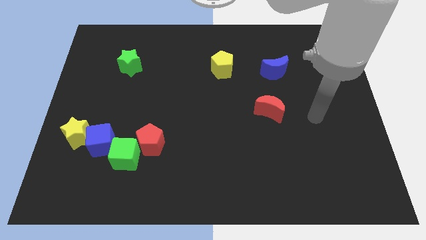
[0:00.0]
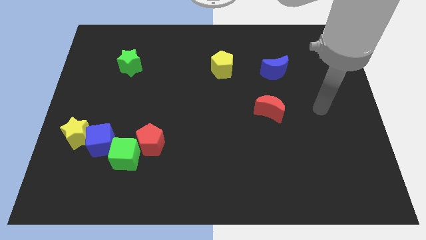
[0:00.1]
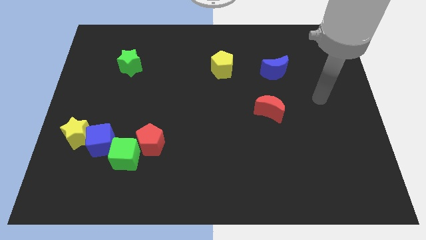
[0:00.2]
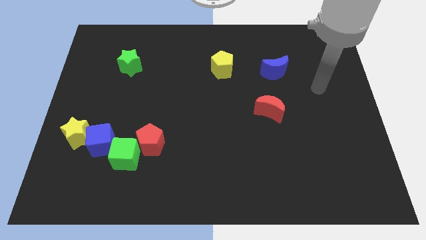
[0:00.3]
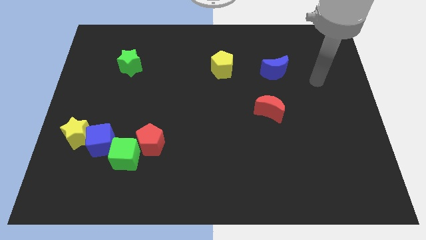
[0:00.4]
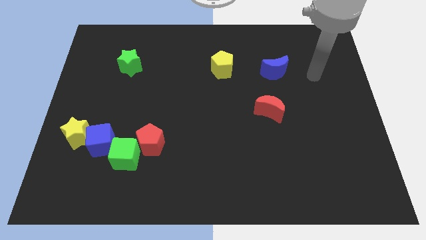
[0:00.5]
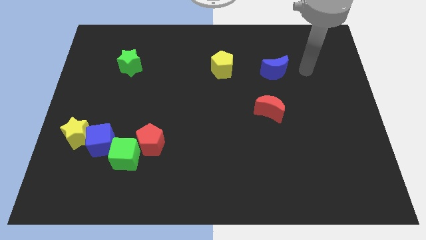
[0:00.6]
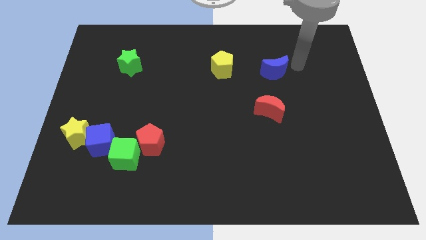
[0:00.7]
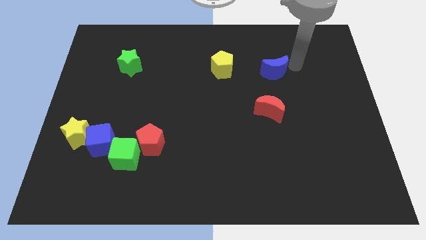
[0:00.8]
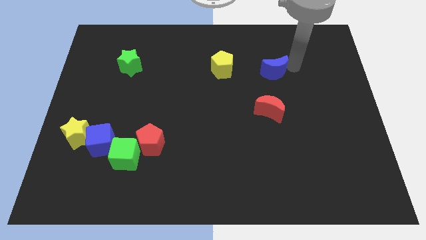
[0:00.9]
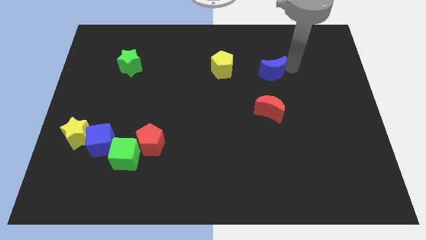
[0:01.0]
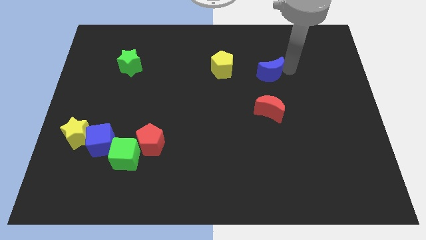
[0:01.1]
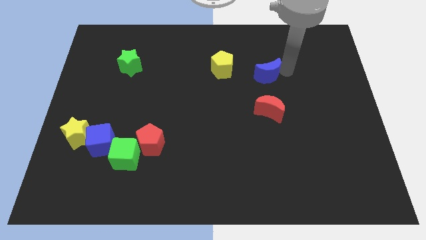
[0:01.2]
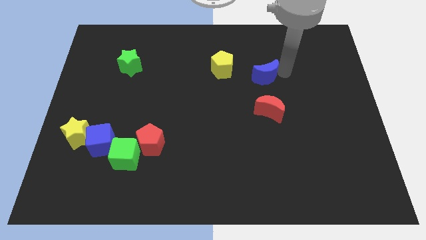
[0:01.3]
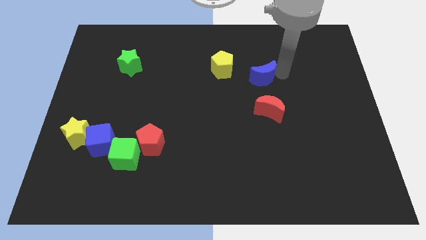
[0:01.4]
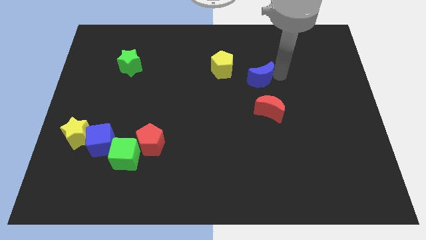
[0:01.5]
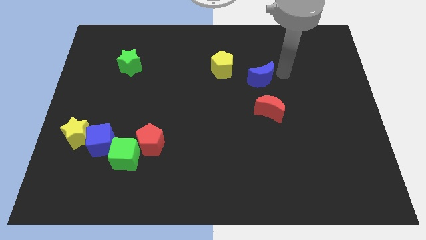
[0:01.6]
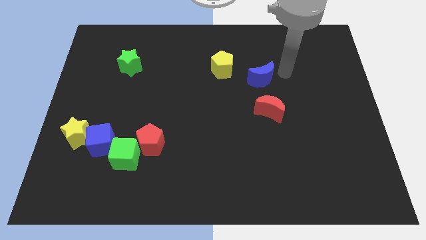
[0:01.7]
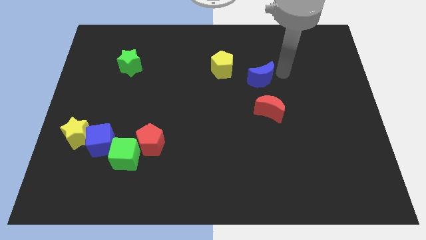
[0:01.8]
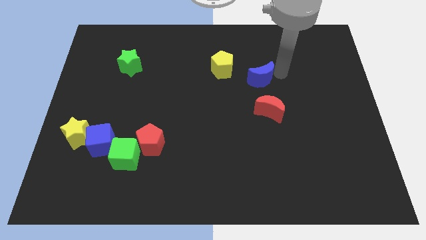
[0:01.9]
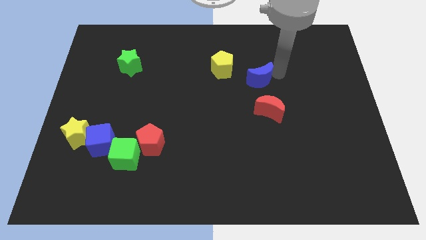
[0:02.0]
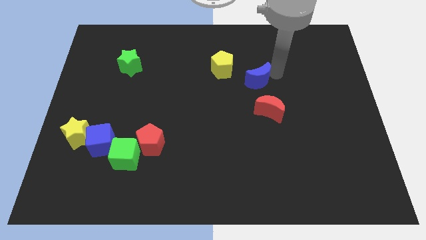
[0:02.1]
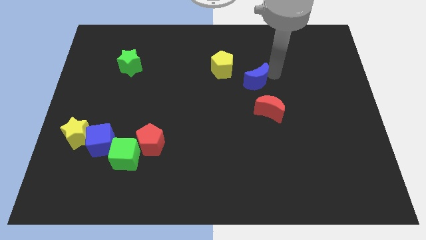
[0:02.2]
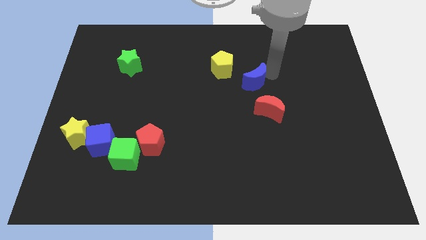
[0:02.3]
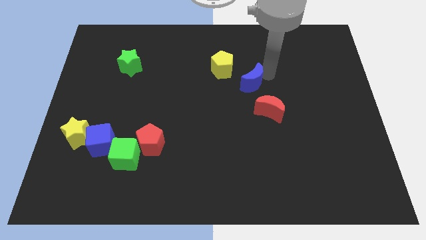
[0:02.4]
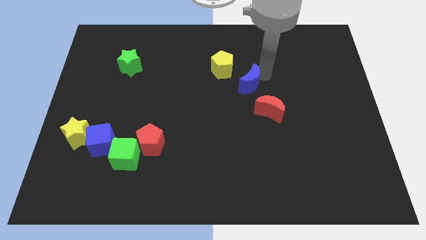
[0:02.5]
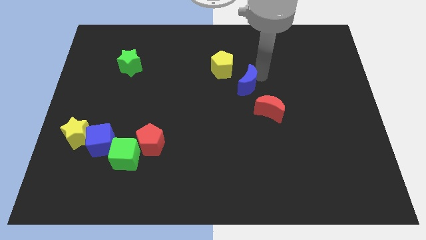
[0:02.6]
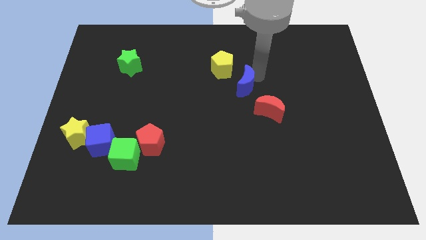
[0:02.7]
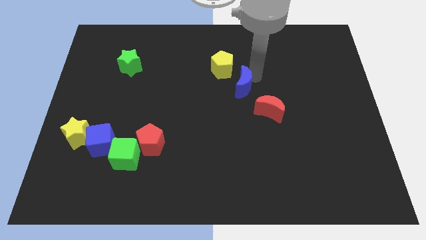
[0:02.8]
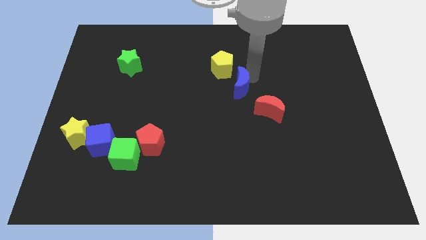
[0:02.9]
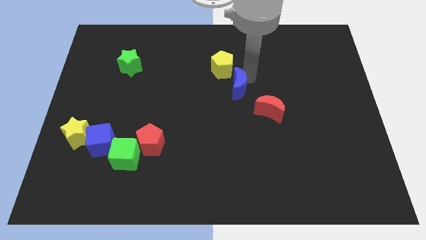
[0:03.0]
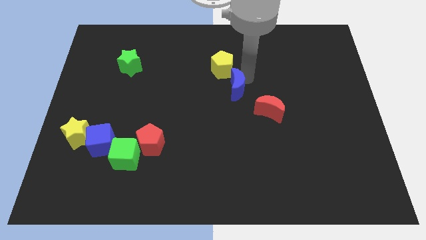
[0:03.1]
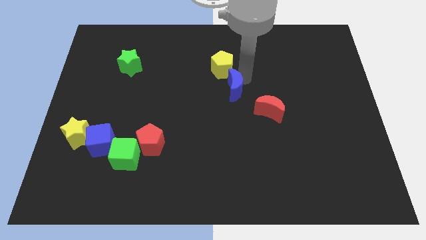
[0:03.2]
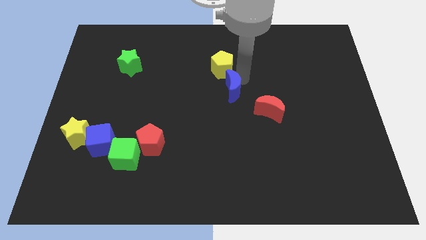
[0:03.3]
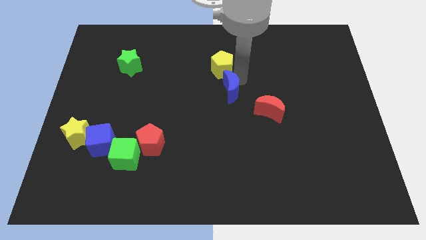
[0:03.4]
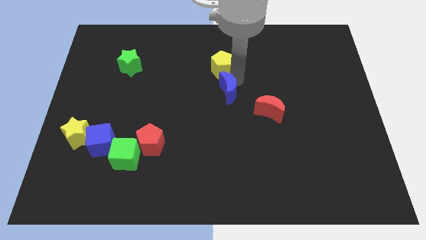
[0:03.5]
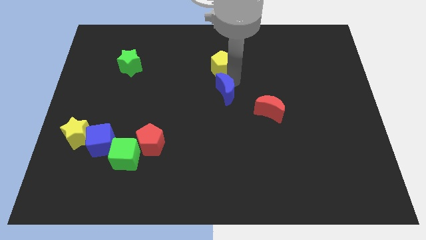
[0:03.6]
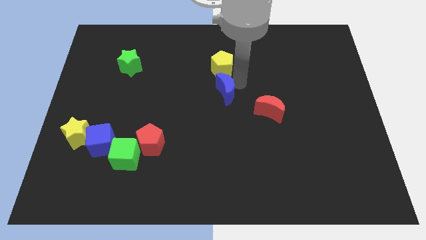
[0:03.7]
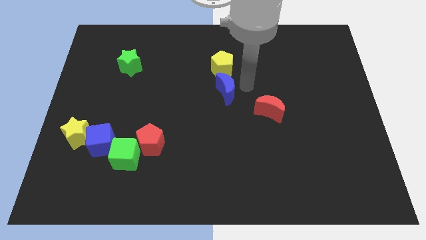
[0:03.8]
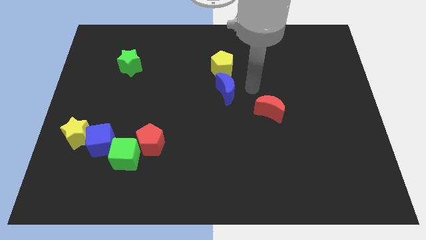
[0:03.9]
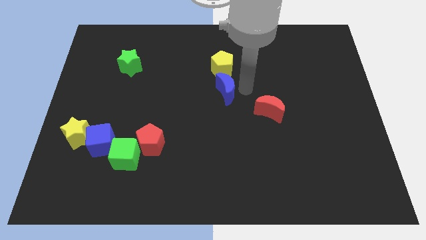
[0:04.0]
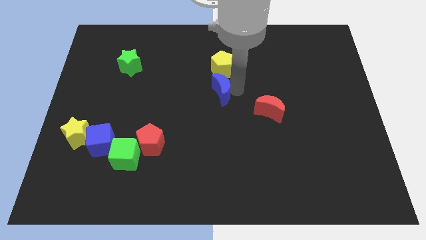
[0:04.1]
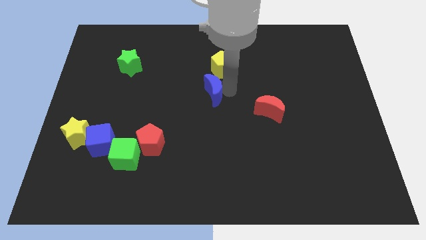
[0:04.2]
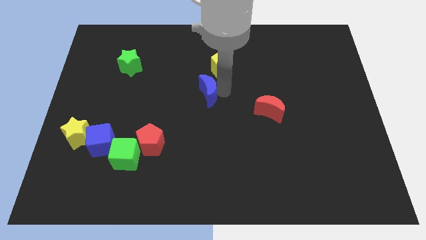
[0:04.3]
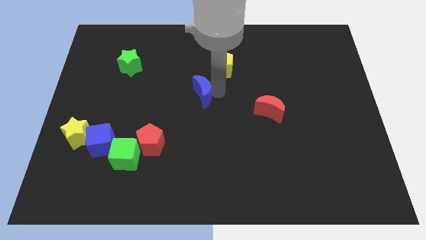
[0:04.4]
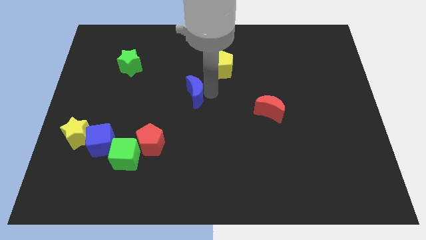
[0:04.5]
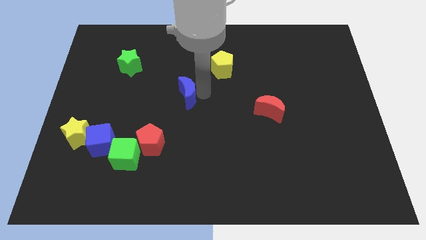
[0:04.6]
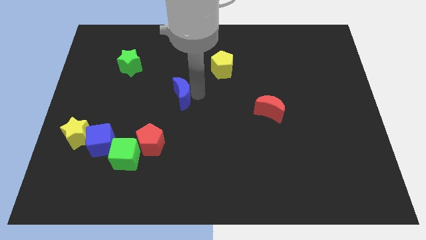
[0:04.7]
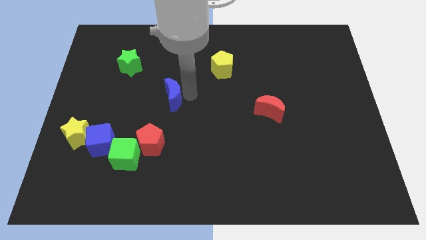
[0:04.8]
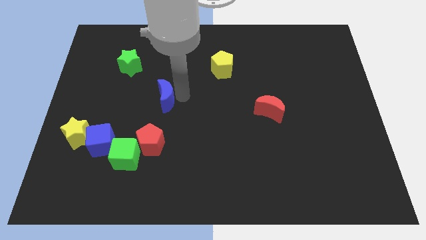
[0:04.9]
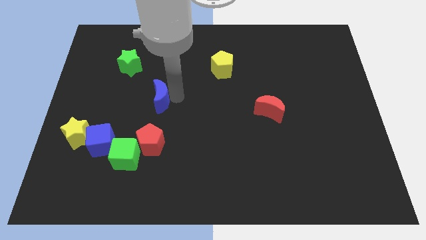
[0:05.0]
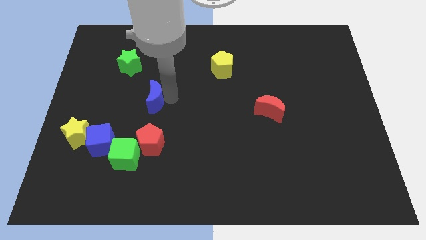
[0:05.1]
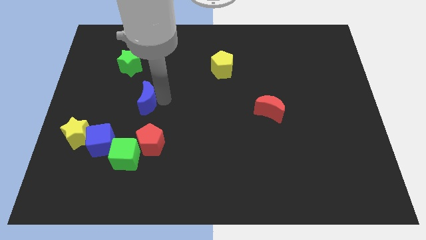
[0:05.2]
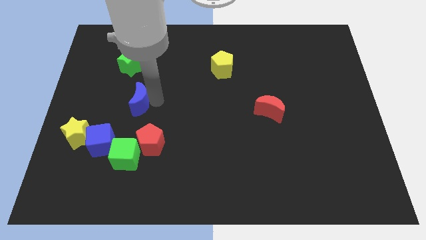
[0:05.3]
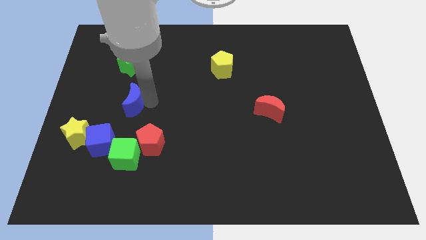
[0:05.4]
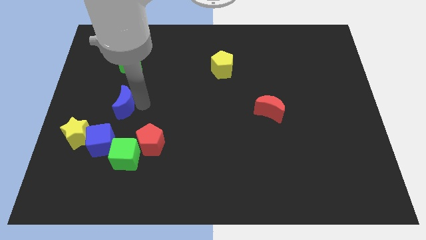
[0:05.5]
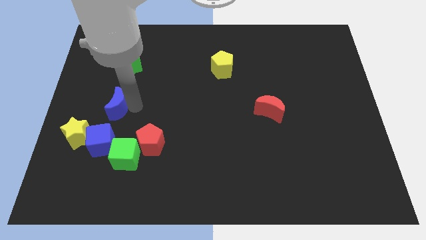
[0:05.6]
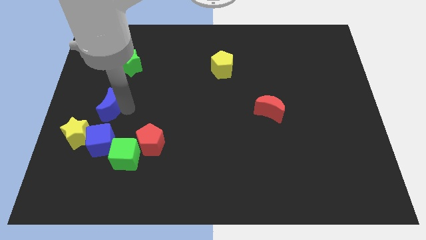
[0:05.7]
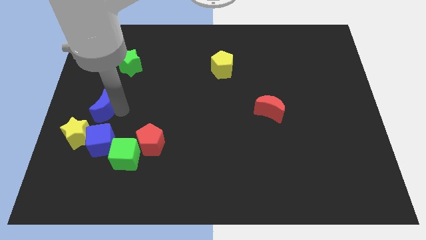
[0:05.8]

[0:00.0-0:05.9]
slide the blue moon to the left side of the board

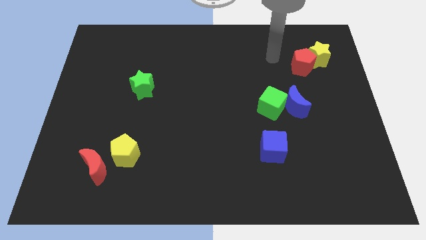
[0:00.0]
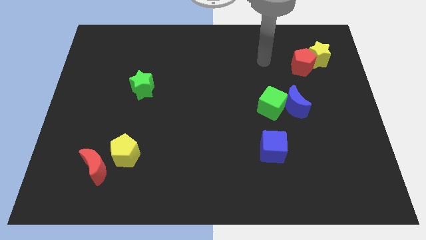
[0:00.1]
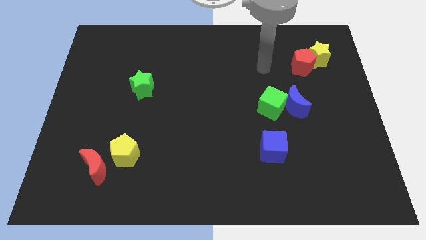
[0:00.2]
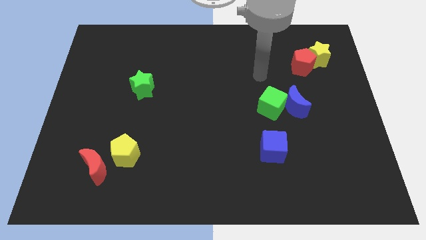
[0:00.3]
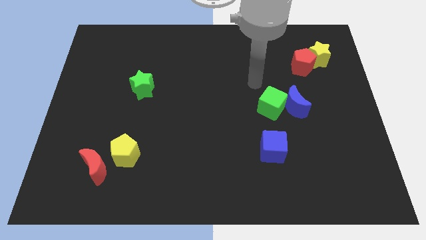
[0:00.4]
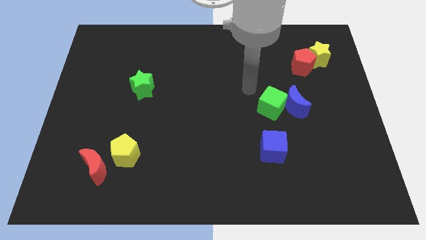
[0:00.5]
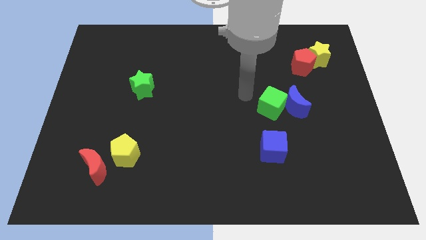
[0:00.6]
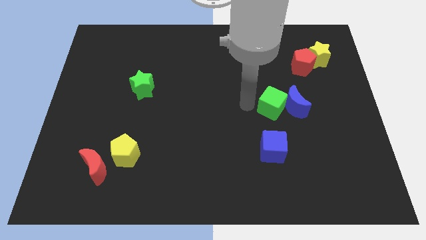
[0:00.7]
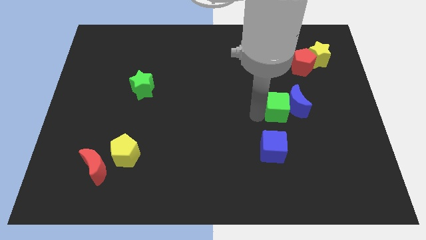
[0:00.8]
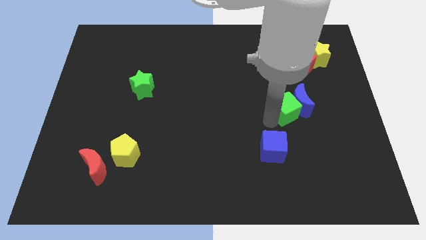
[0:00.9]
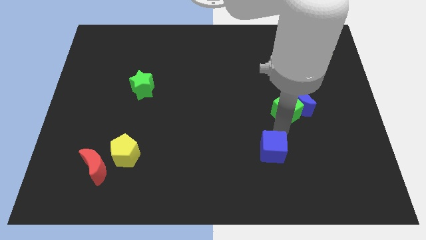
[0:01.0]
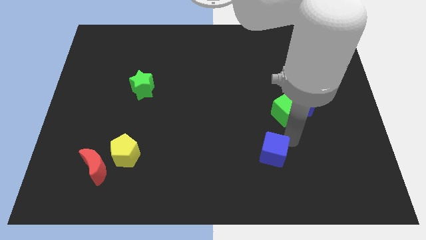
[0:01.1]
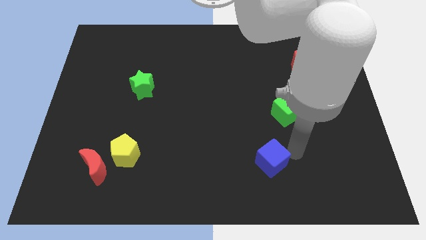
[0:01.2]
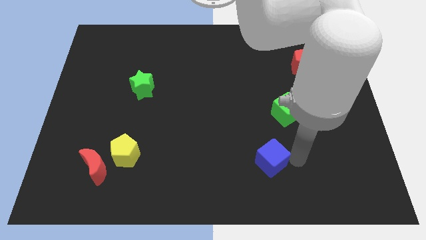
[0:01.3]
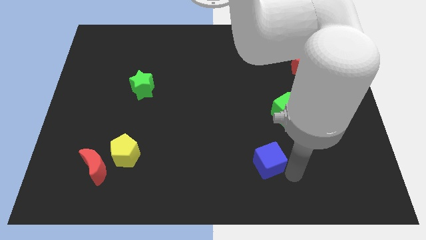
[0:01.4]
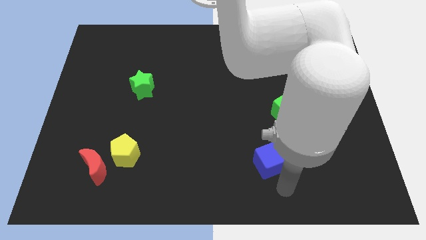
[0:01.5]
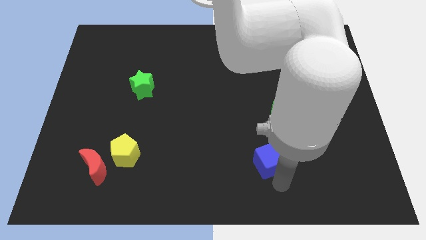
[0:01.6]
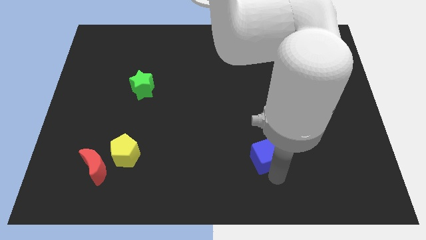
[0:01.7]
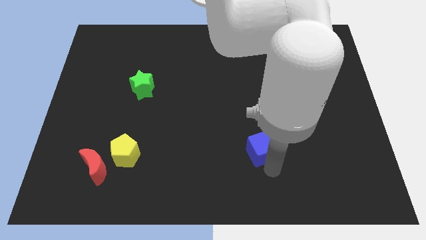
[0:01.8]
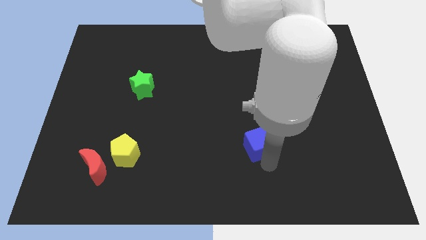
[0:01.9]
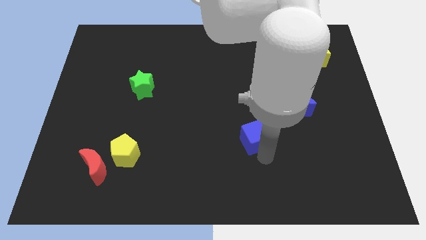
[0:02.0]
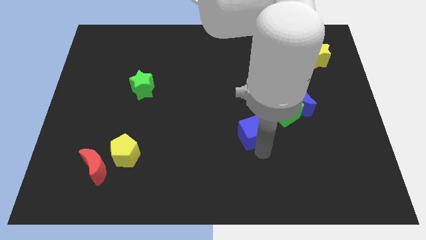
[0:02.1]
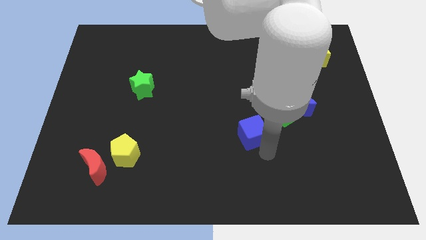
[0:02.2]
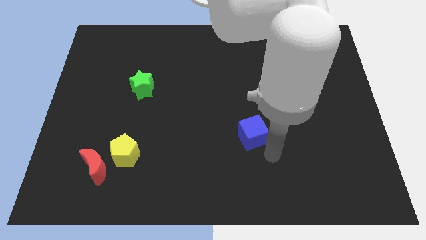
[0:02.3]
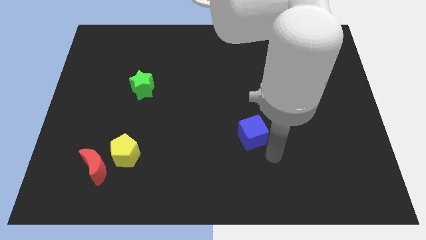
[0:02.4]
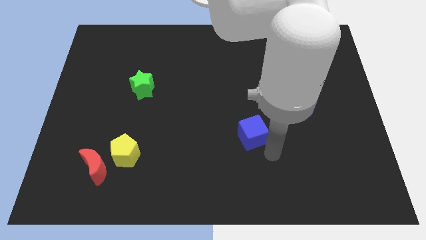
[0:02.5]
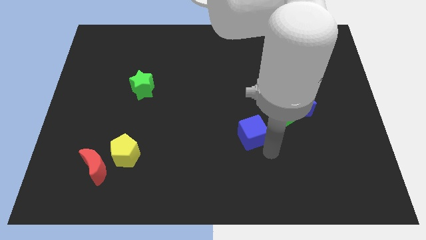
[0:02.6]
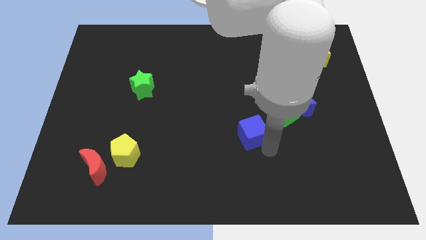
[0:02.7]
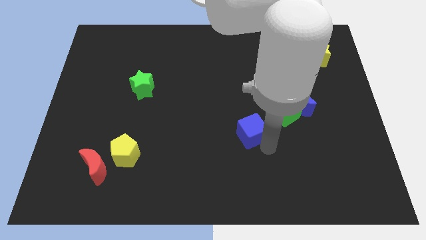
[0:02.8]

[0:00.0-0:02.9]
slide the blue cube to the center of the board
